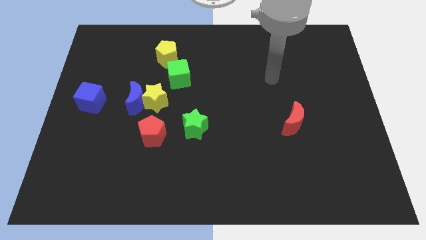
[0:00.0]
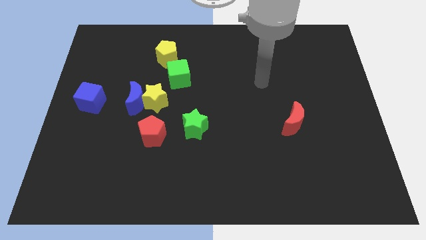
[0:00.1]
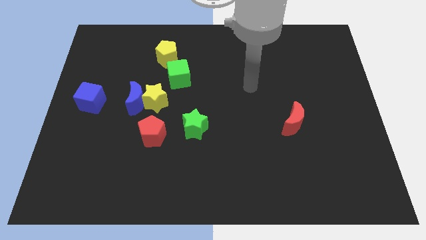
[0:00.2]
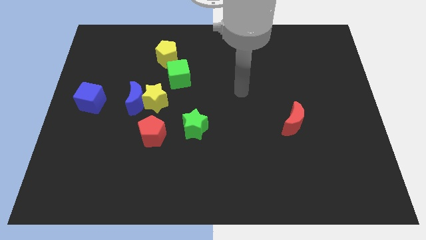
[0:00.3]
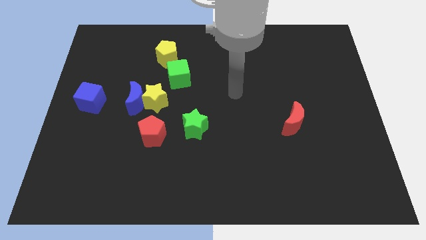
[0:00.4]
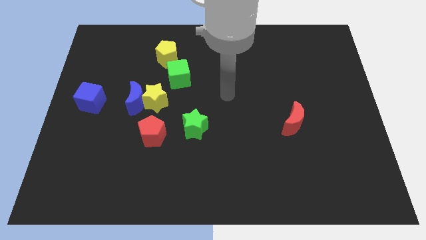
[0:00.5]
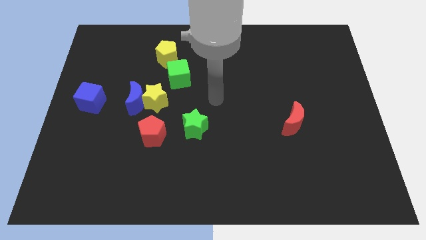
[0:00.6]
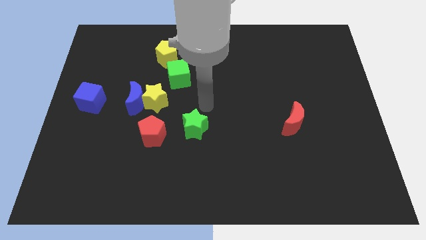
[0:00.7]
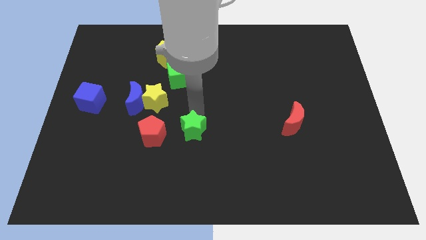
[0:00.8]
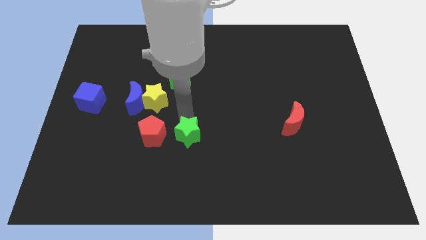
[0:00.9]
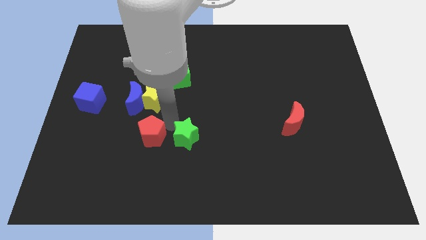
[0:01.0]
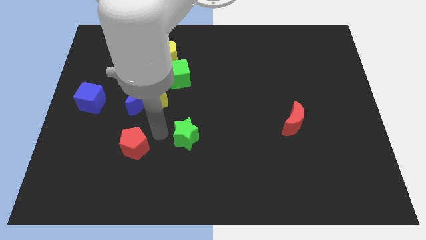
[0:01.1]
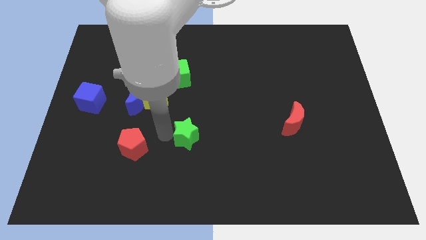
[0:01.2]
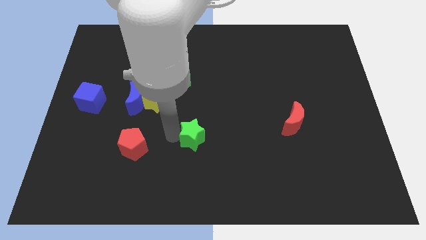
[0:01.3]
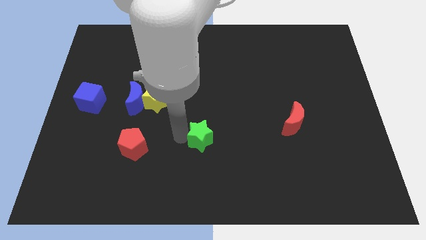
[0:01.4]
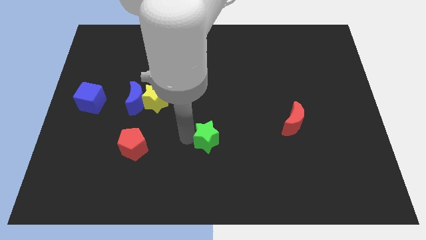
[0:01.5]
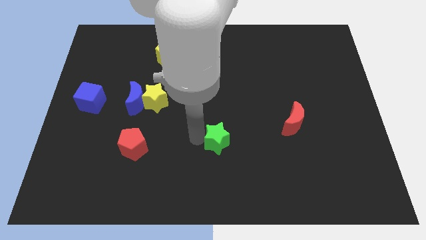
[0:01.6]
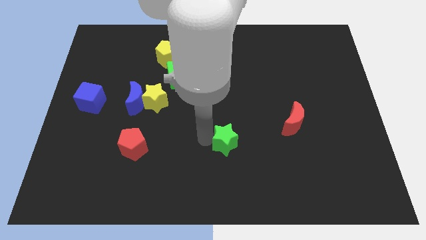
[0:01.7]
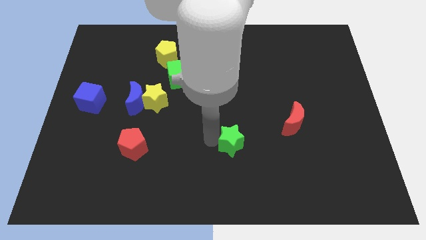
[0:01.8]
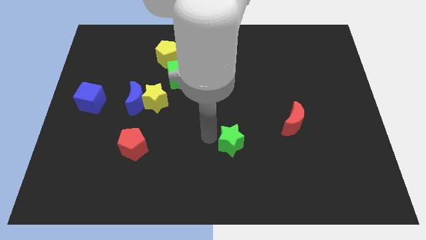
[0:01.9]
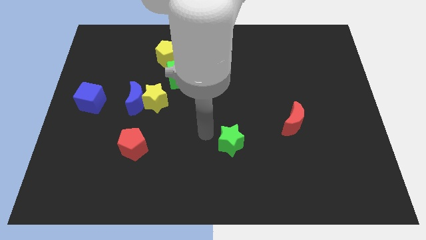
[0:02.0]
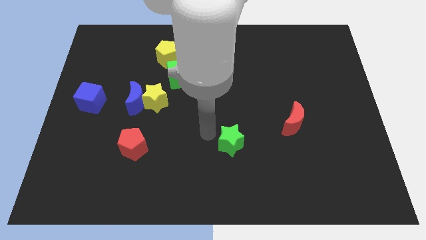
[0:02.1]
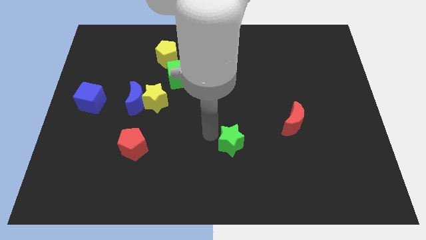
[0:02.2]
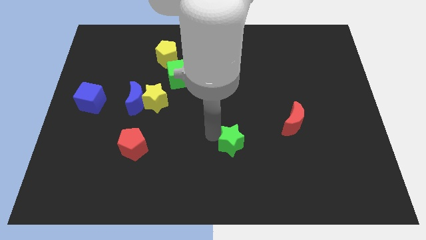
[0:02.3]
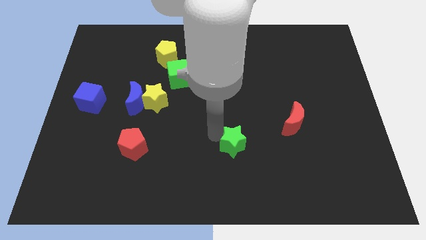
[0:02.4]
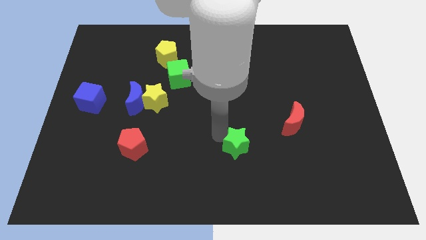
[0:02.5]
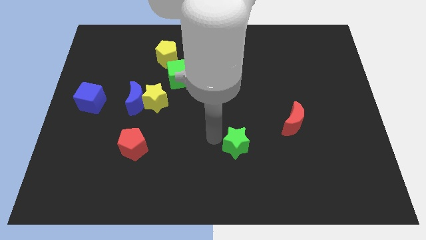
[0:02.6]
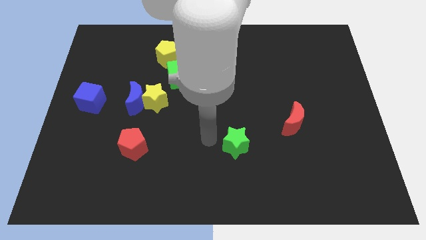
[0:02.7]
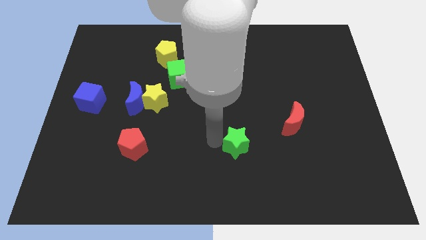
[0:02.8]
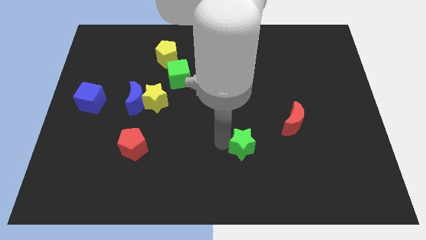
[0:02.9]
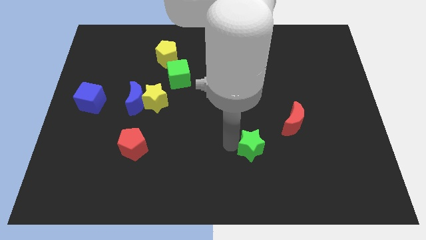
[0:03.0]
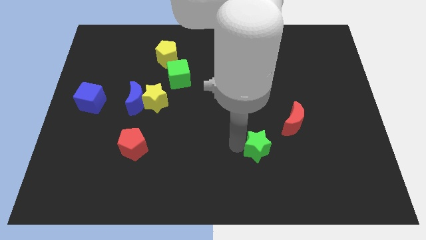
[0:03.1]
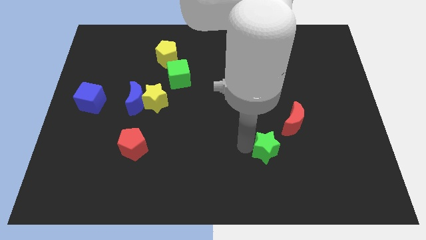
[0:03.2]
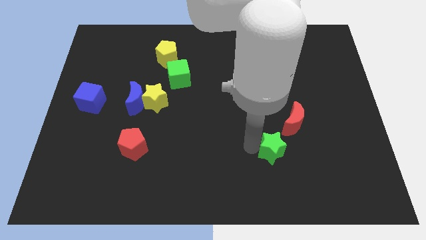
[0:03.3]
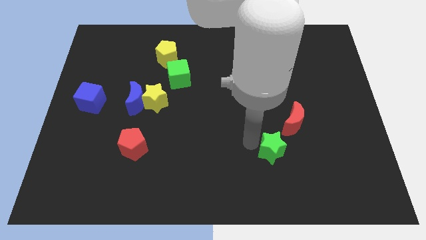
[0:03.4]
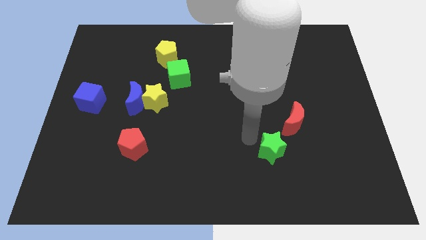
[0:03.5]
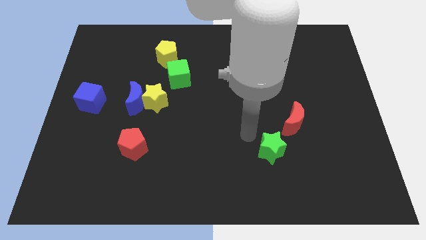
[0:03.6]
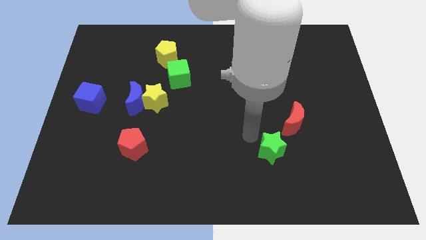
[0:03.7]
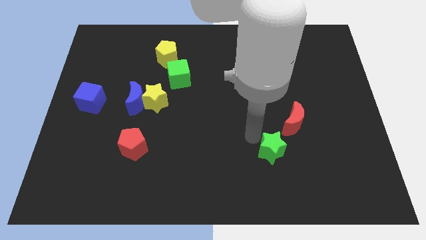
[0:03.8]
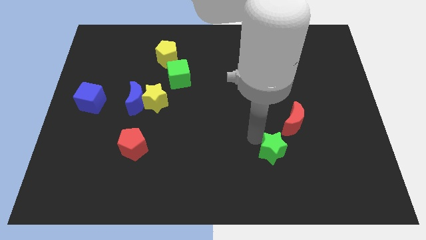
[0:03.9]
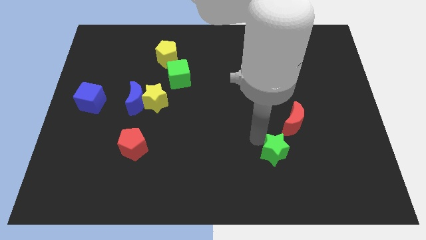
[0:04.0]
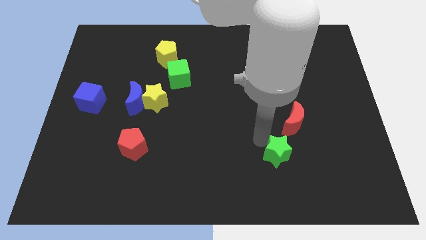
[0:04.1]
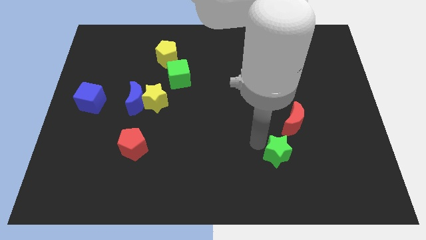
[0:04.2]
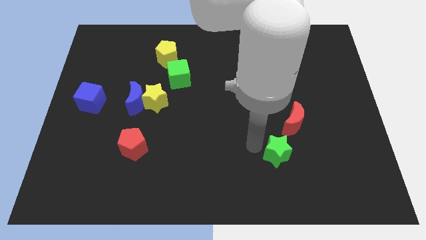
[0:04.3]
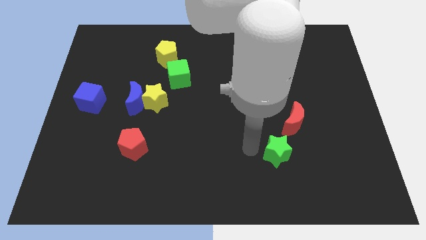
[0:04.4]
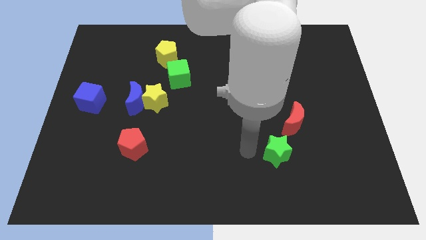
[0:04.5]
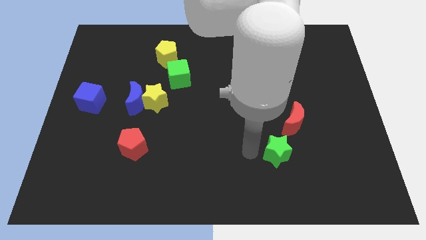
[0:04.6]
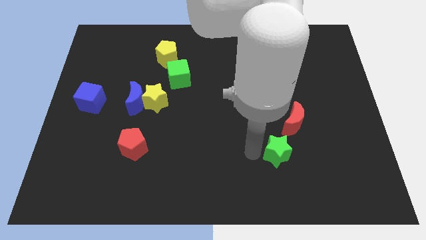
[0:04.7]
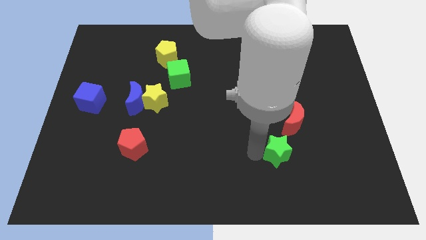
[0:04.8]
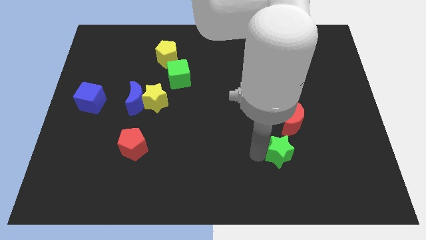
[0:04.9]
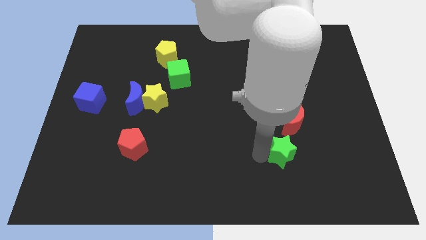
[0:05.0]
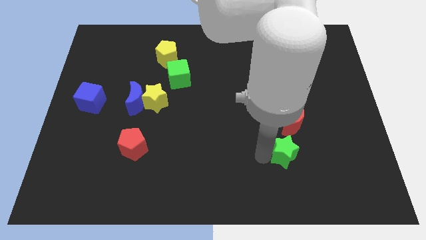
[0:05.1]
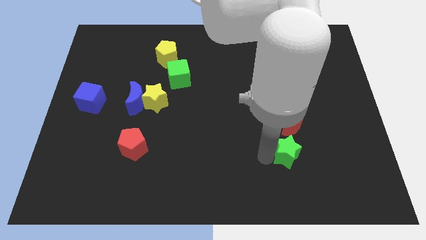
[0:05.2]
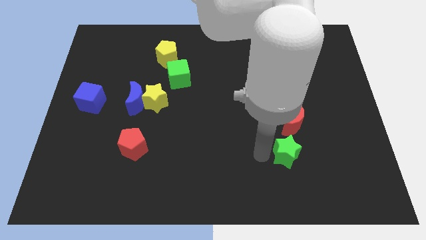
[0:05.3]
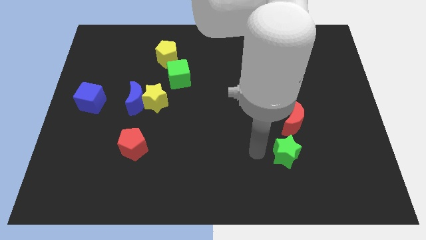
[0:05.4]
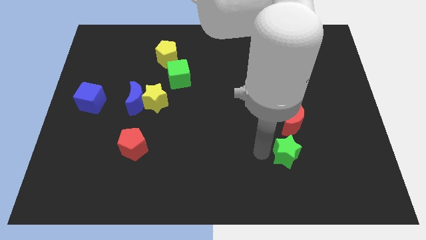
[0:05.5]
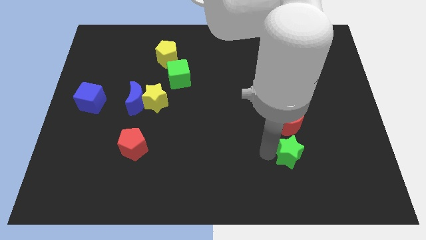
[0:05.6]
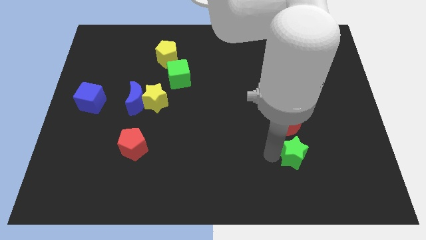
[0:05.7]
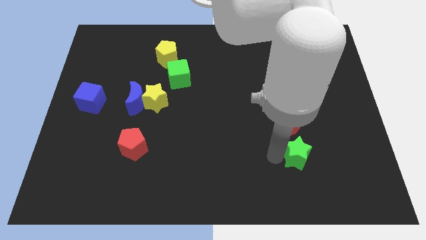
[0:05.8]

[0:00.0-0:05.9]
push the green star to the right

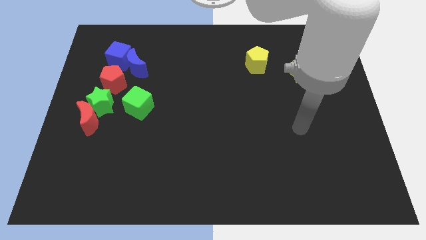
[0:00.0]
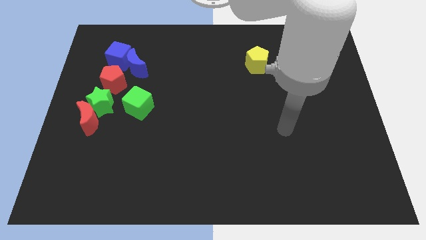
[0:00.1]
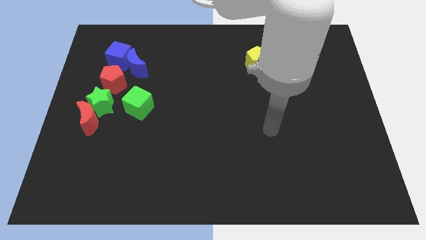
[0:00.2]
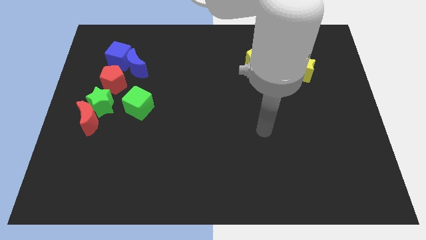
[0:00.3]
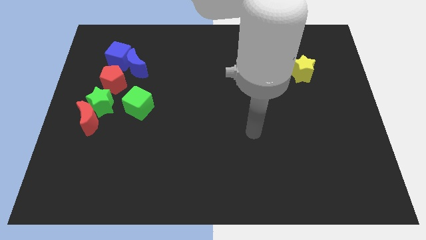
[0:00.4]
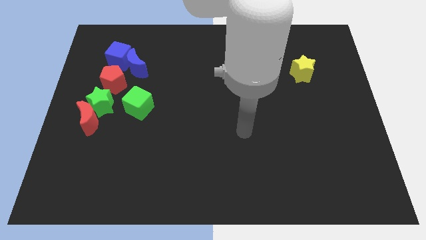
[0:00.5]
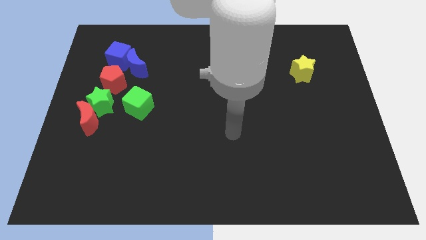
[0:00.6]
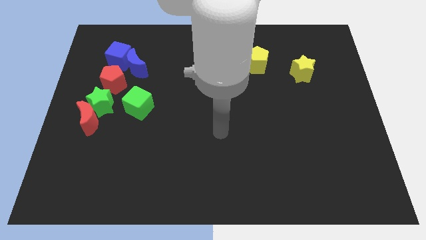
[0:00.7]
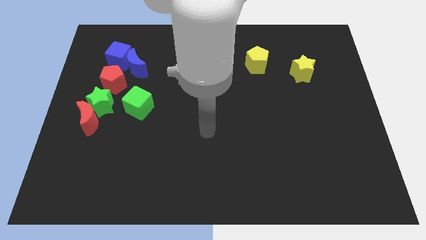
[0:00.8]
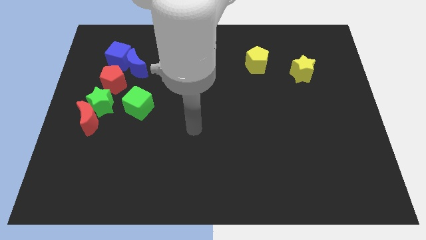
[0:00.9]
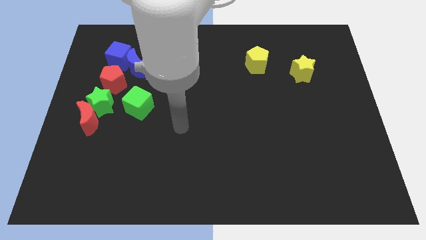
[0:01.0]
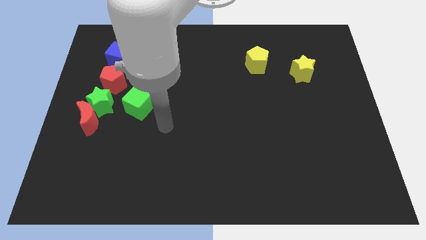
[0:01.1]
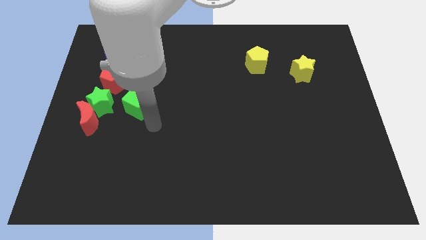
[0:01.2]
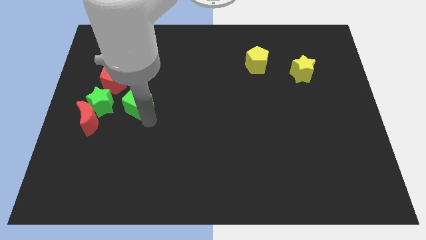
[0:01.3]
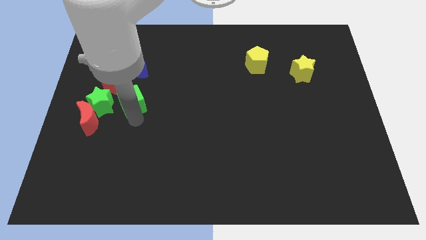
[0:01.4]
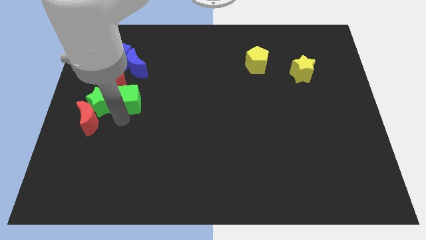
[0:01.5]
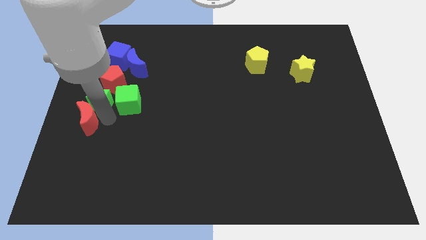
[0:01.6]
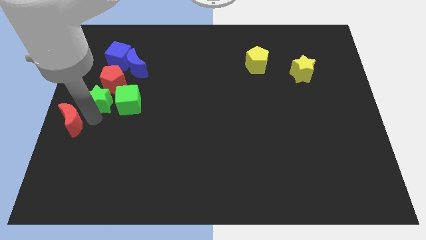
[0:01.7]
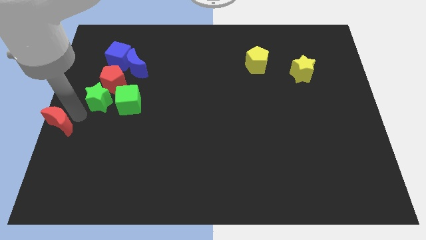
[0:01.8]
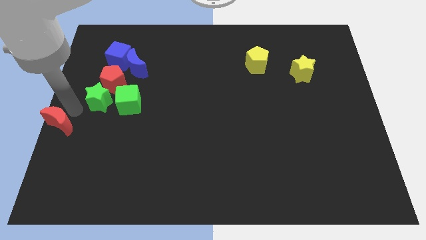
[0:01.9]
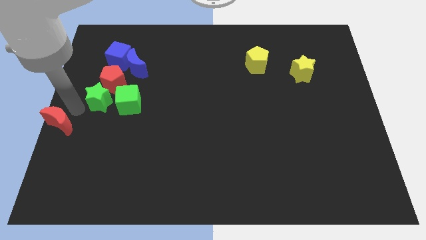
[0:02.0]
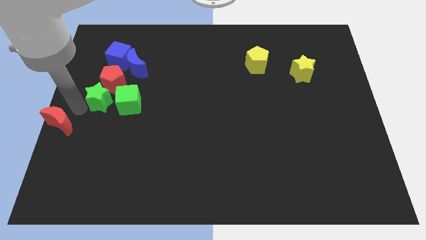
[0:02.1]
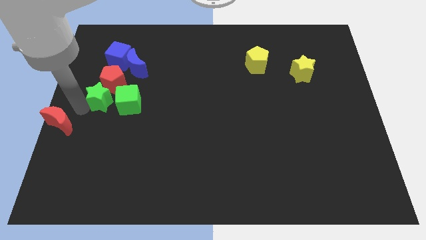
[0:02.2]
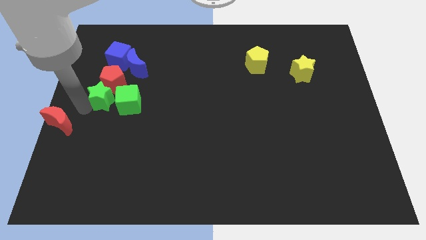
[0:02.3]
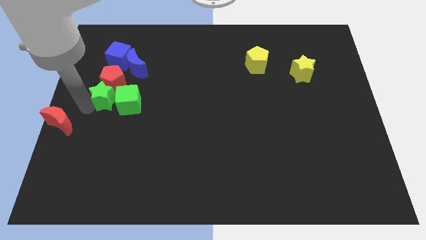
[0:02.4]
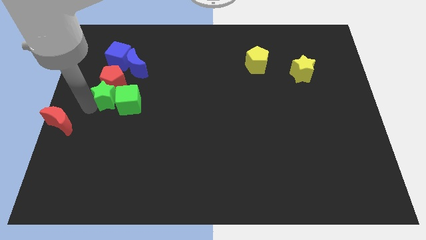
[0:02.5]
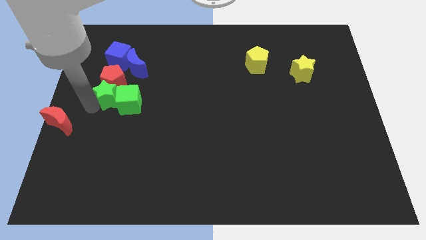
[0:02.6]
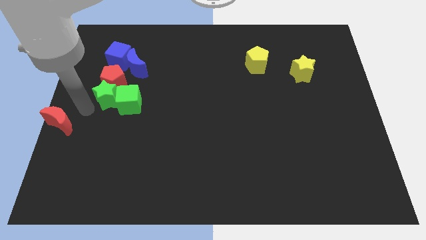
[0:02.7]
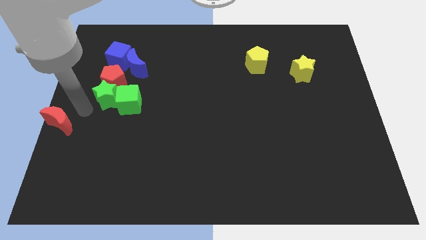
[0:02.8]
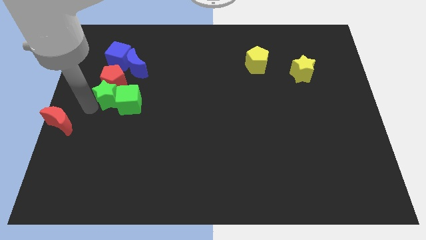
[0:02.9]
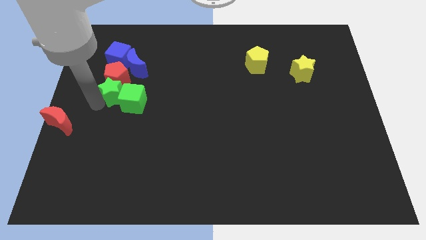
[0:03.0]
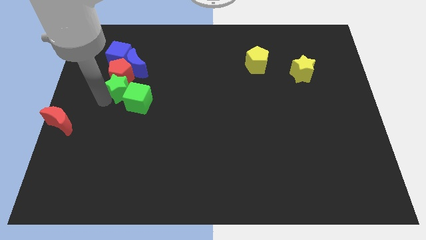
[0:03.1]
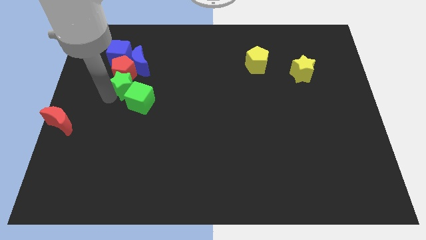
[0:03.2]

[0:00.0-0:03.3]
slightly push the green star up and right diagonally
